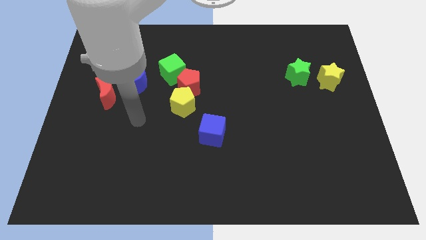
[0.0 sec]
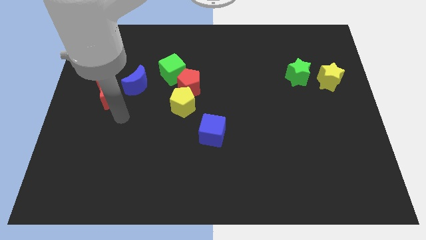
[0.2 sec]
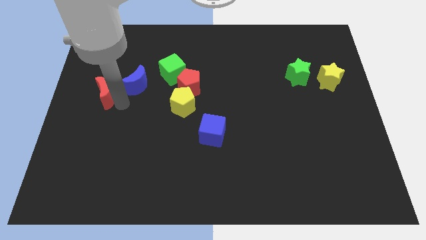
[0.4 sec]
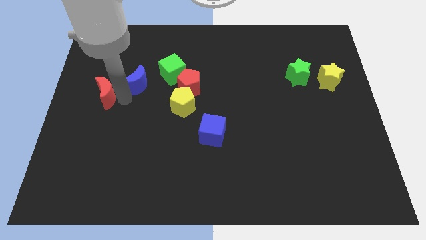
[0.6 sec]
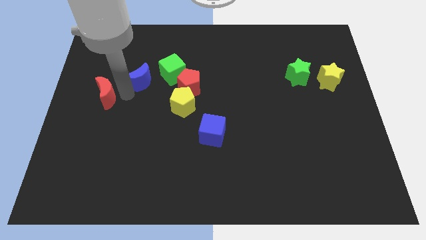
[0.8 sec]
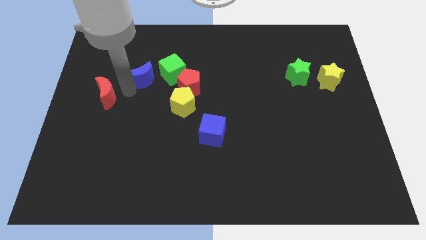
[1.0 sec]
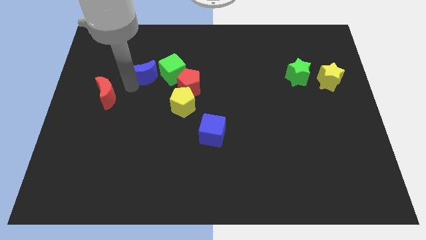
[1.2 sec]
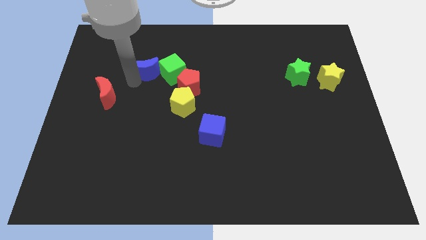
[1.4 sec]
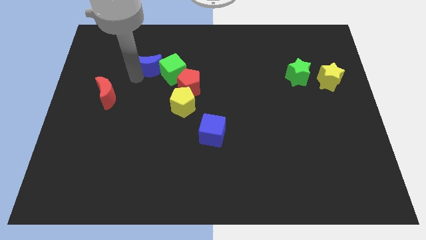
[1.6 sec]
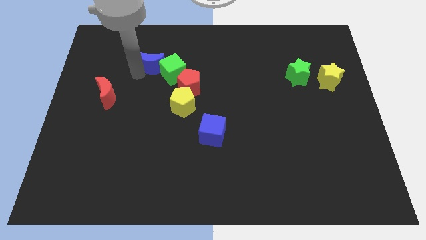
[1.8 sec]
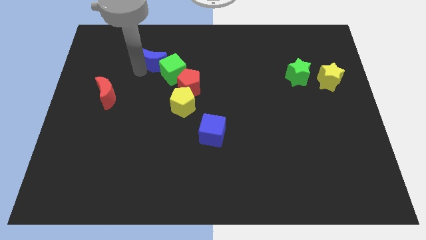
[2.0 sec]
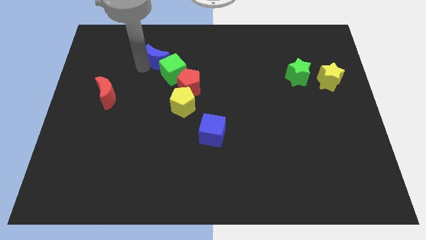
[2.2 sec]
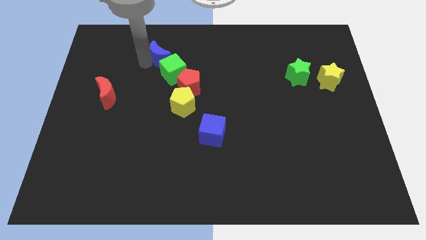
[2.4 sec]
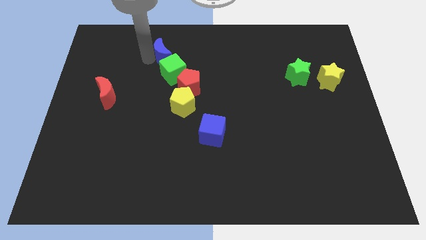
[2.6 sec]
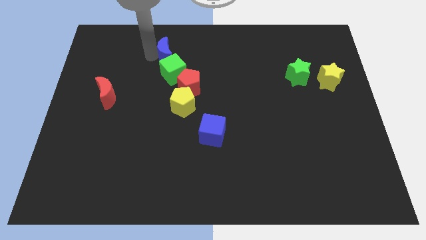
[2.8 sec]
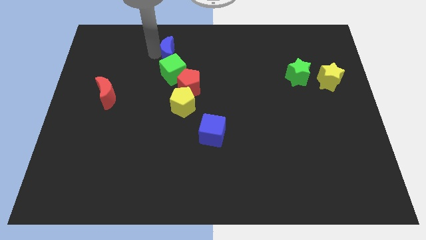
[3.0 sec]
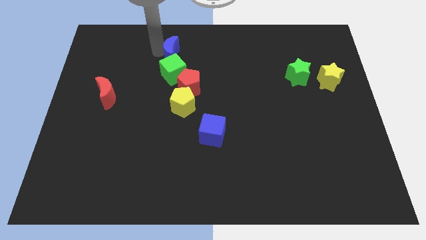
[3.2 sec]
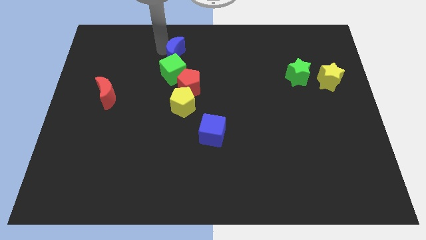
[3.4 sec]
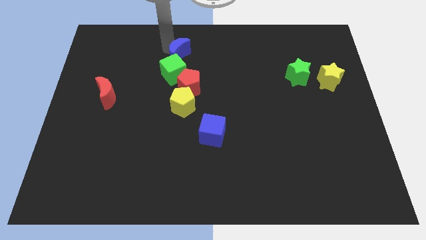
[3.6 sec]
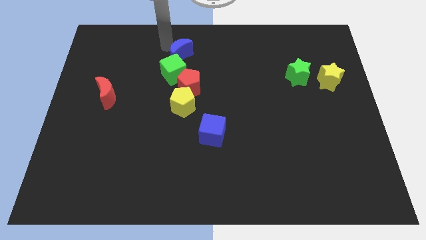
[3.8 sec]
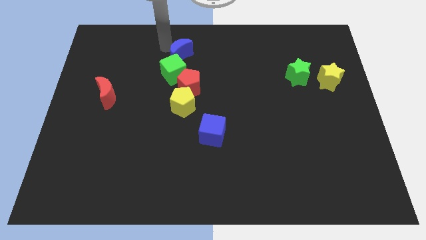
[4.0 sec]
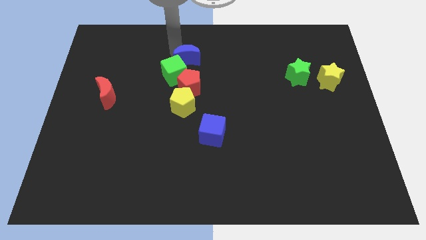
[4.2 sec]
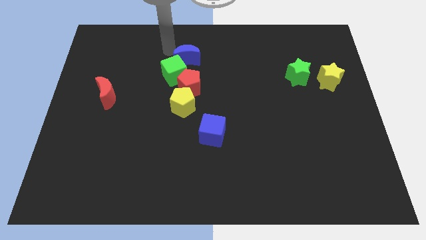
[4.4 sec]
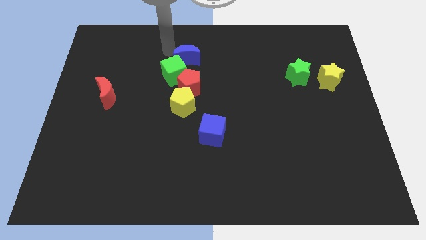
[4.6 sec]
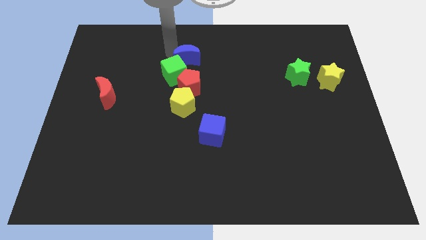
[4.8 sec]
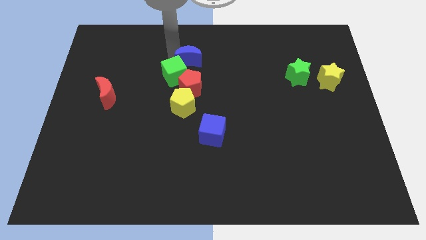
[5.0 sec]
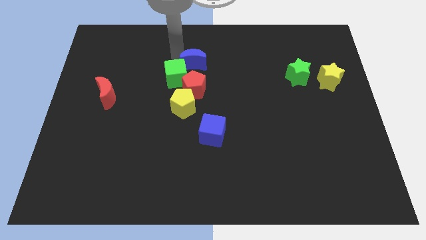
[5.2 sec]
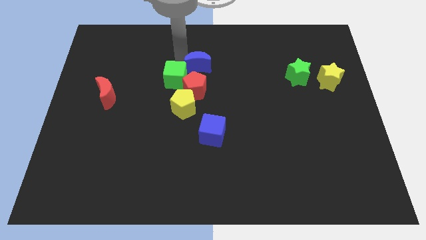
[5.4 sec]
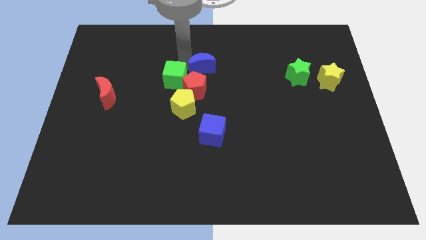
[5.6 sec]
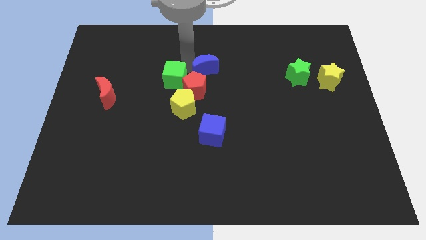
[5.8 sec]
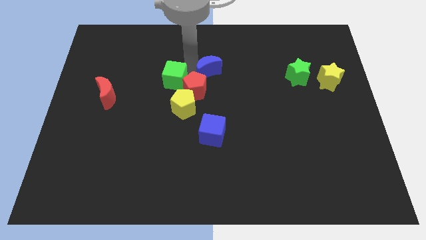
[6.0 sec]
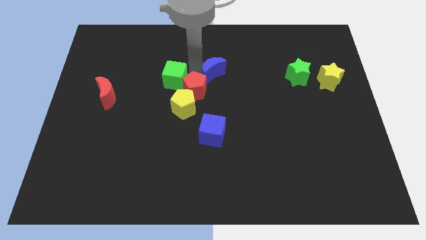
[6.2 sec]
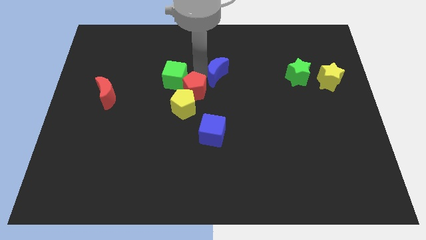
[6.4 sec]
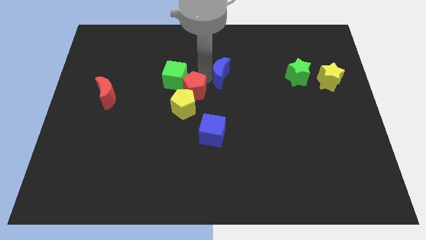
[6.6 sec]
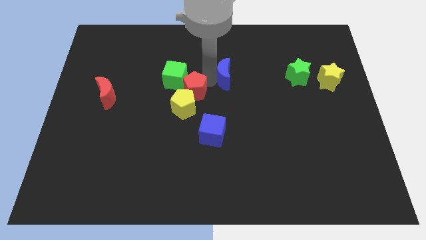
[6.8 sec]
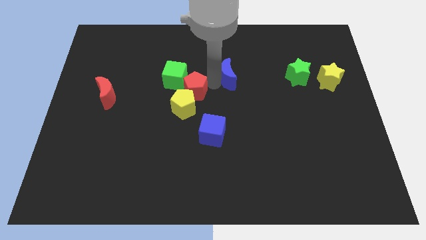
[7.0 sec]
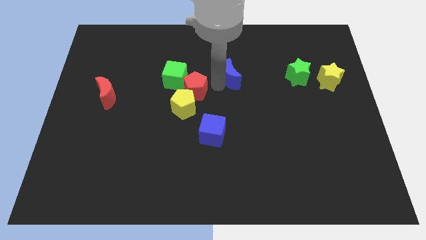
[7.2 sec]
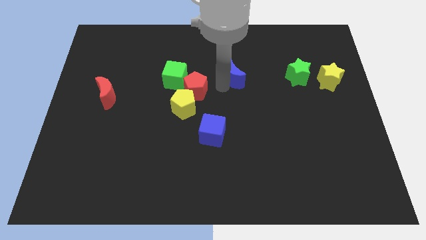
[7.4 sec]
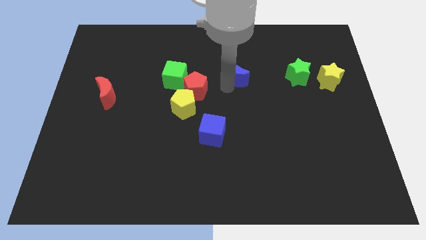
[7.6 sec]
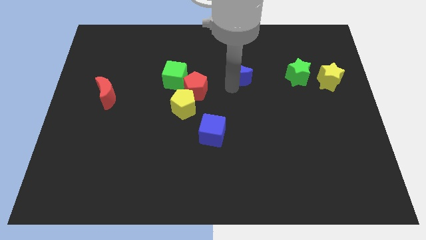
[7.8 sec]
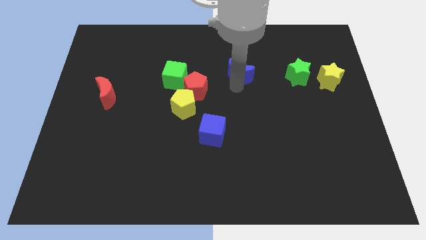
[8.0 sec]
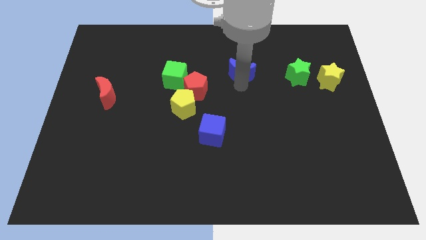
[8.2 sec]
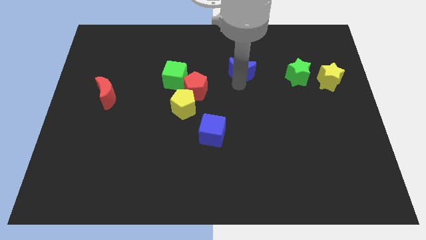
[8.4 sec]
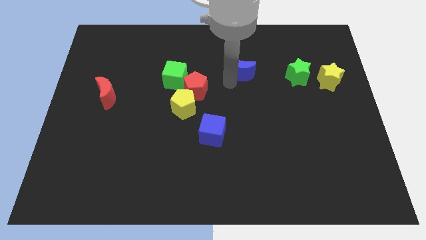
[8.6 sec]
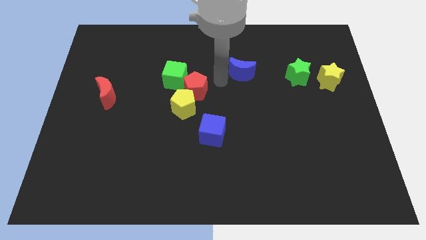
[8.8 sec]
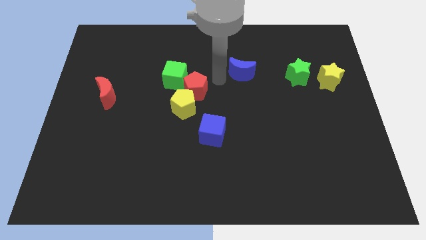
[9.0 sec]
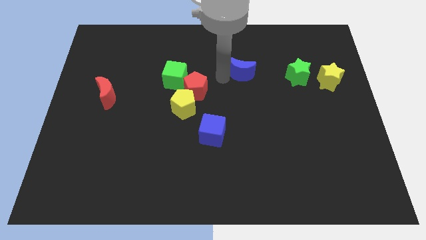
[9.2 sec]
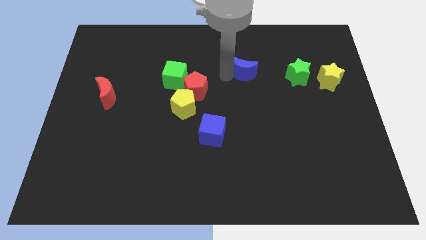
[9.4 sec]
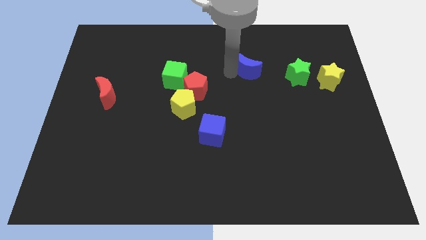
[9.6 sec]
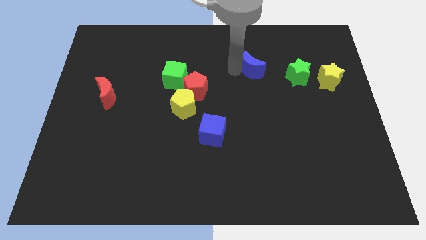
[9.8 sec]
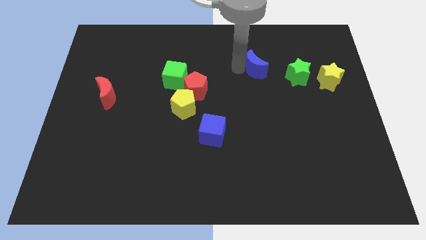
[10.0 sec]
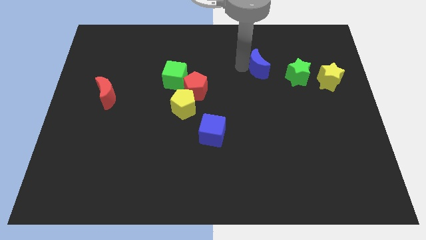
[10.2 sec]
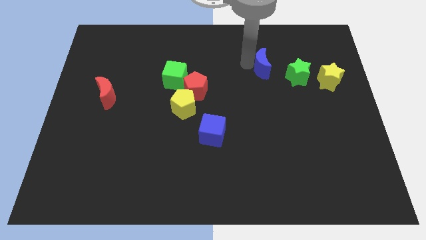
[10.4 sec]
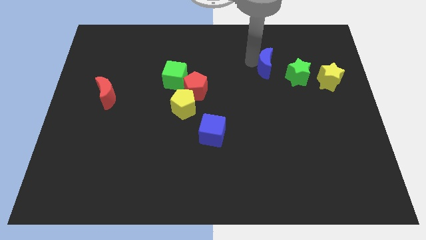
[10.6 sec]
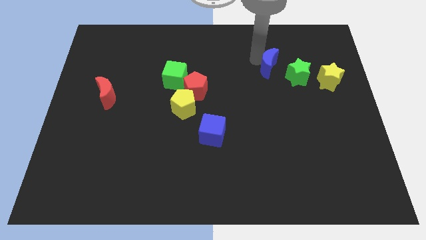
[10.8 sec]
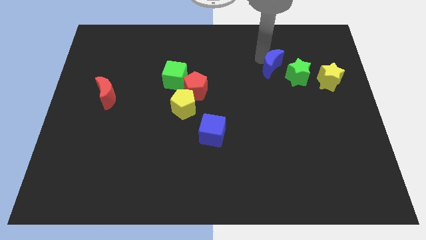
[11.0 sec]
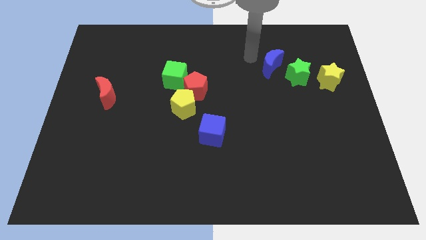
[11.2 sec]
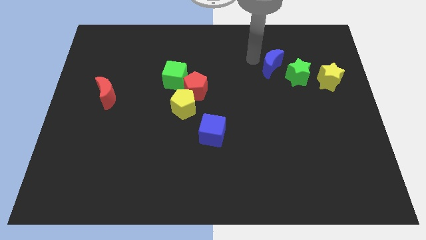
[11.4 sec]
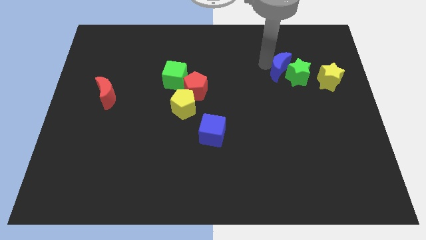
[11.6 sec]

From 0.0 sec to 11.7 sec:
push the blue moon towards the green star

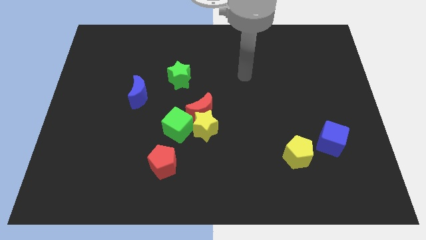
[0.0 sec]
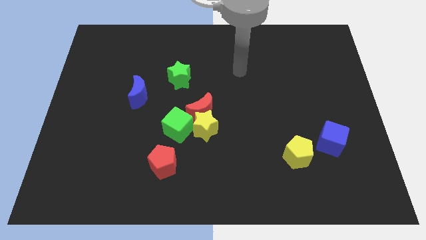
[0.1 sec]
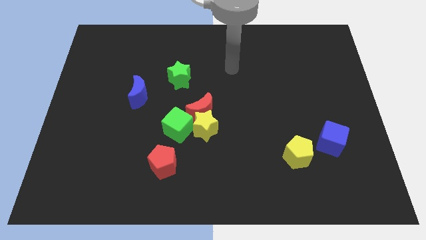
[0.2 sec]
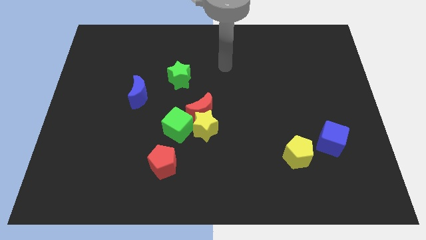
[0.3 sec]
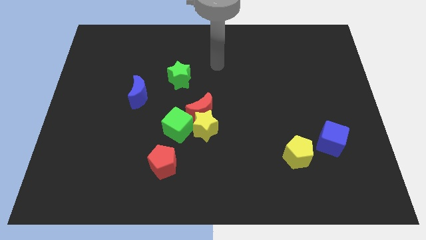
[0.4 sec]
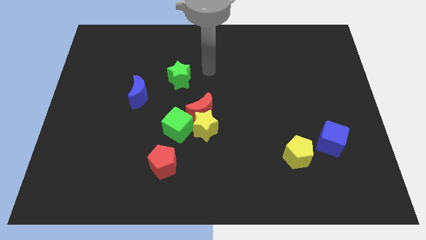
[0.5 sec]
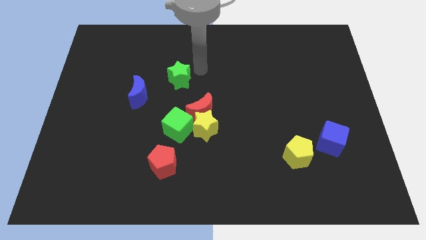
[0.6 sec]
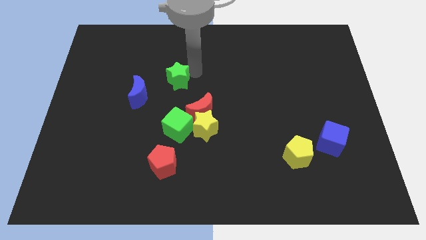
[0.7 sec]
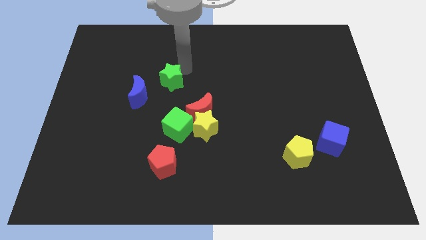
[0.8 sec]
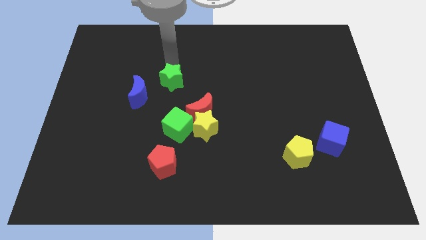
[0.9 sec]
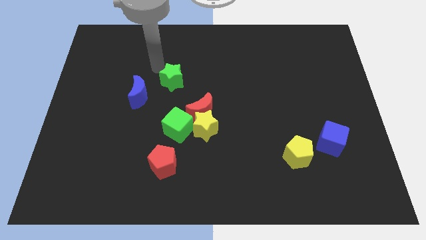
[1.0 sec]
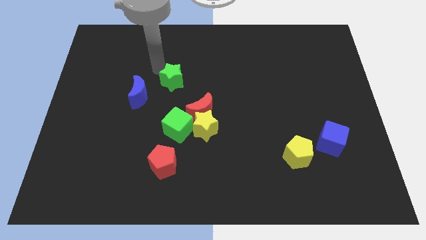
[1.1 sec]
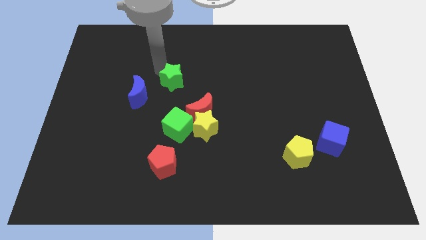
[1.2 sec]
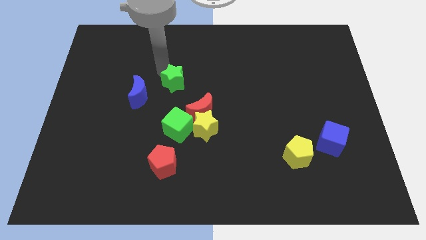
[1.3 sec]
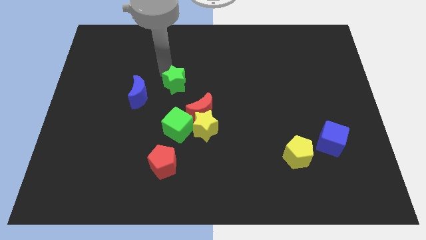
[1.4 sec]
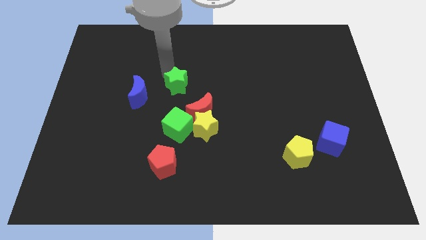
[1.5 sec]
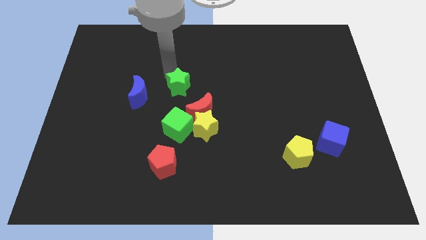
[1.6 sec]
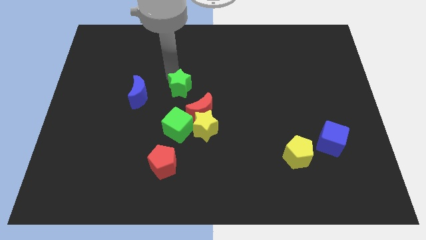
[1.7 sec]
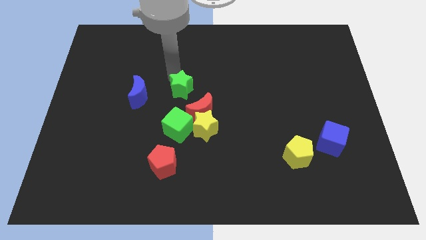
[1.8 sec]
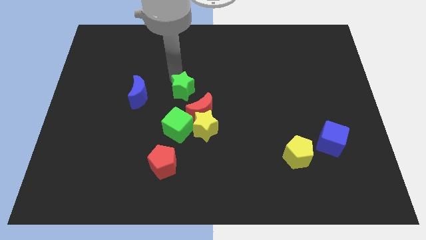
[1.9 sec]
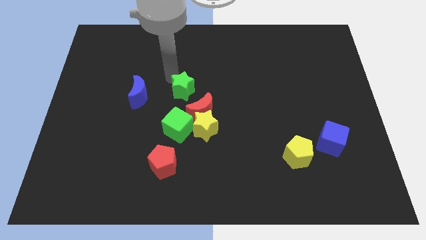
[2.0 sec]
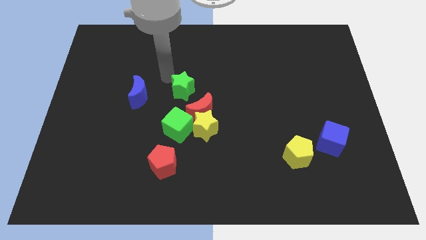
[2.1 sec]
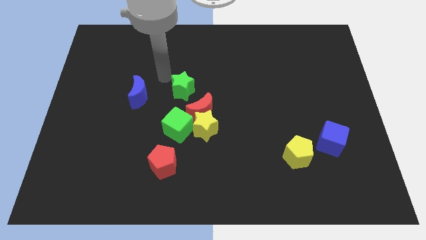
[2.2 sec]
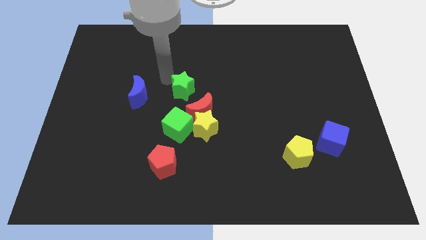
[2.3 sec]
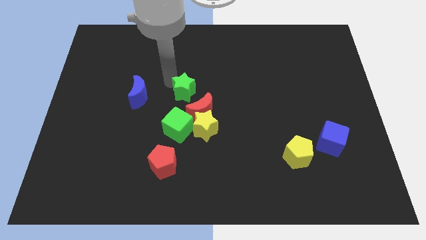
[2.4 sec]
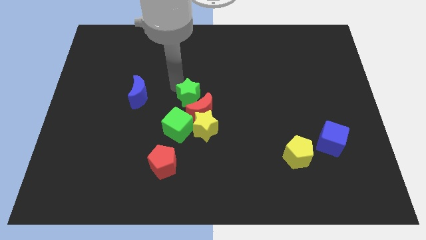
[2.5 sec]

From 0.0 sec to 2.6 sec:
slide the green star next to the red moon
